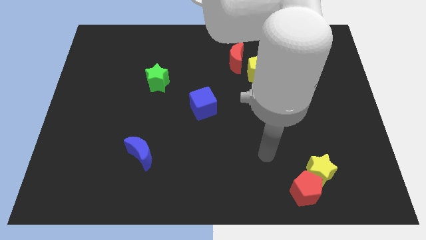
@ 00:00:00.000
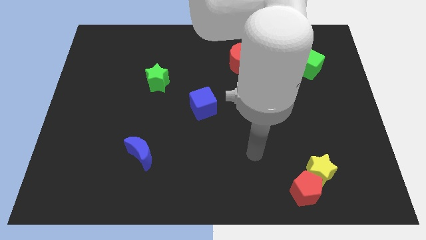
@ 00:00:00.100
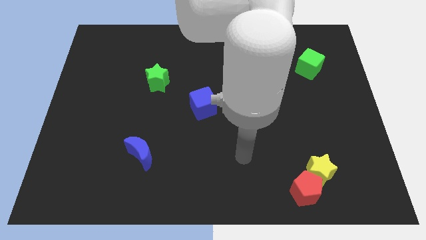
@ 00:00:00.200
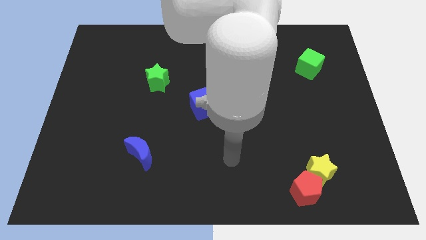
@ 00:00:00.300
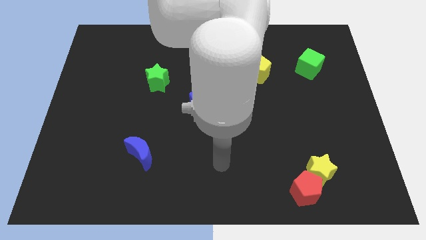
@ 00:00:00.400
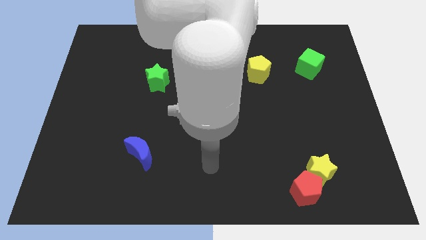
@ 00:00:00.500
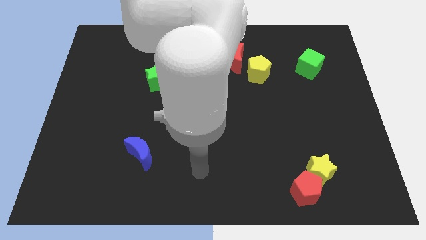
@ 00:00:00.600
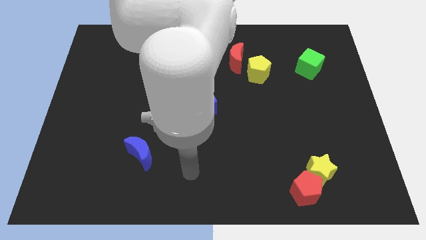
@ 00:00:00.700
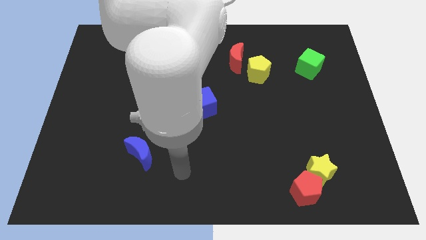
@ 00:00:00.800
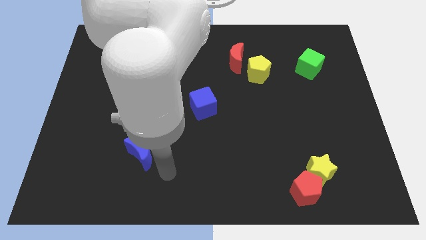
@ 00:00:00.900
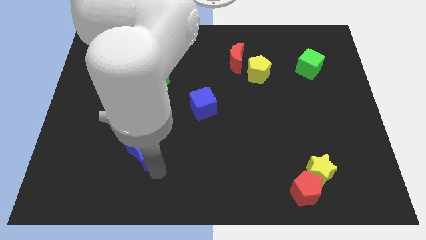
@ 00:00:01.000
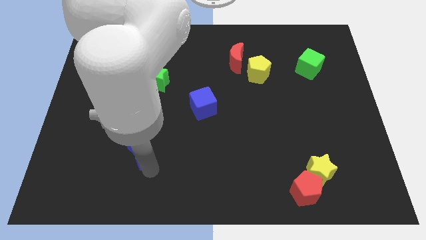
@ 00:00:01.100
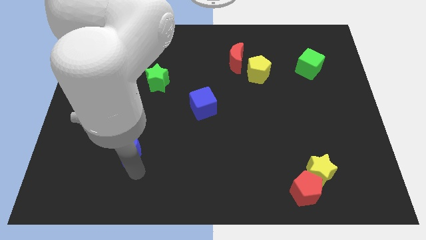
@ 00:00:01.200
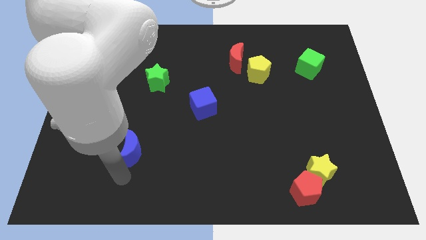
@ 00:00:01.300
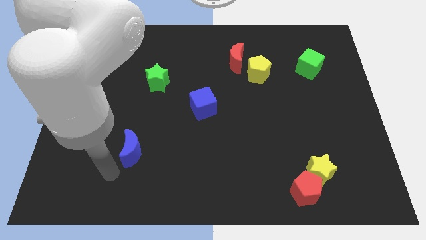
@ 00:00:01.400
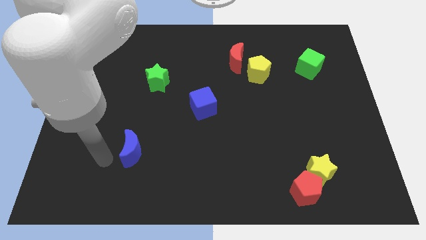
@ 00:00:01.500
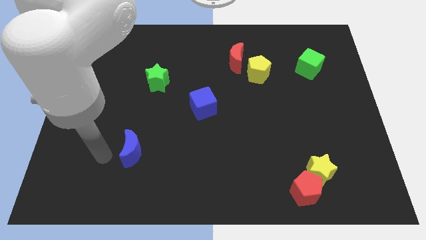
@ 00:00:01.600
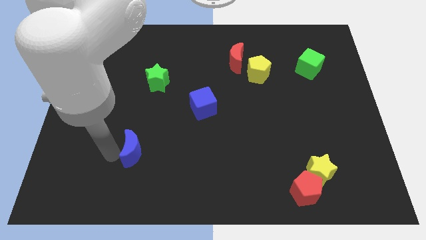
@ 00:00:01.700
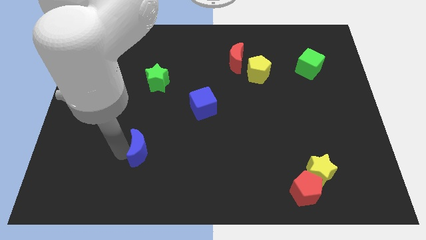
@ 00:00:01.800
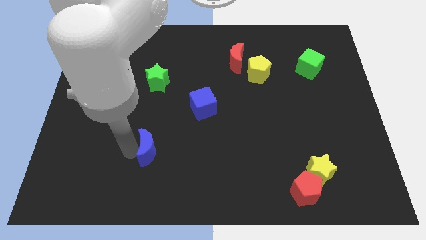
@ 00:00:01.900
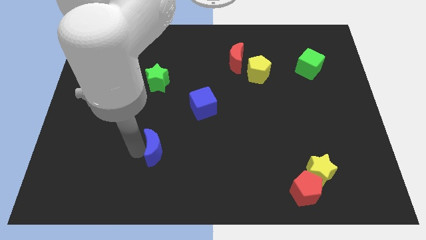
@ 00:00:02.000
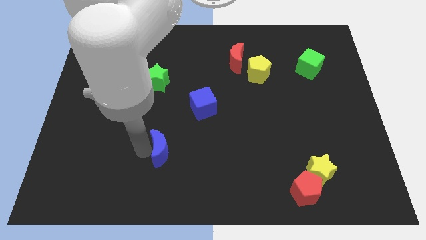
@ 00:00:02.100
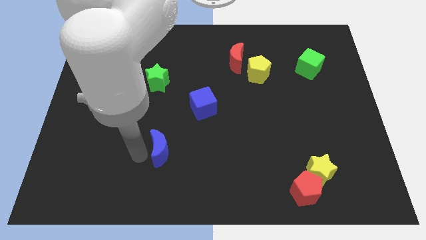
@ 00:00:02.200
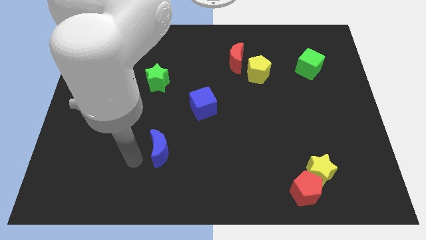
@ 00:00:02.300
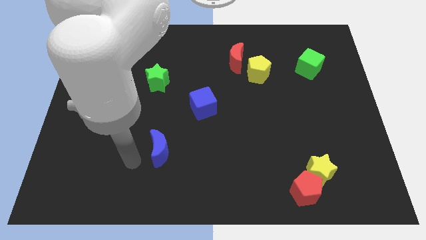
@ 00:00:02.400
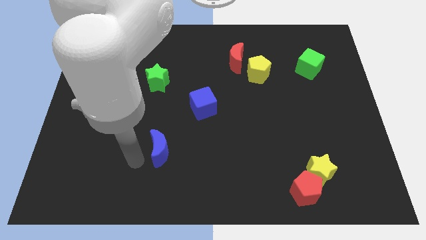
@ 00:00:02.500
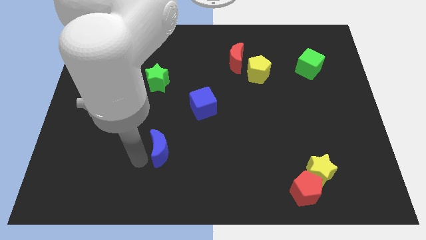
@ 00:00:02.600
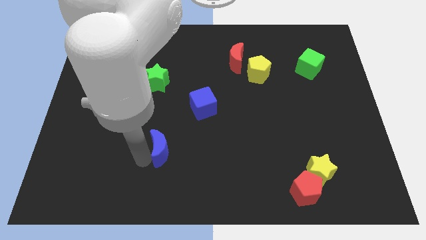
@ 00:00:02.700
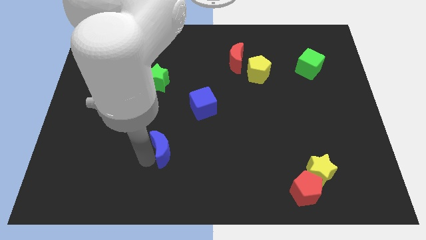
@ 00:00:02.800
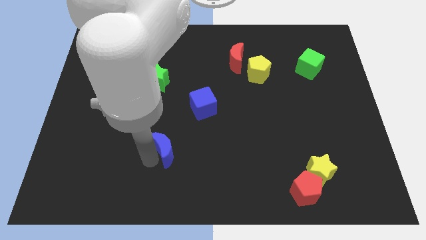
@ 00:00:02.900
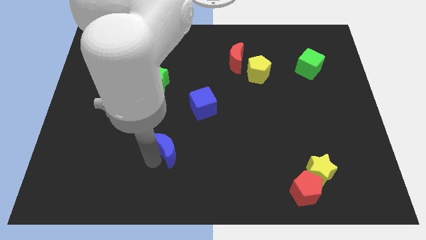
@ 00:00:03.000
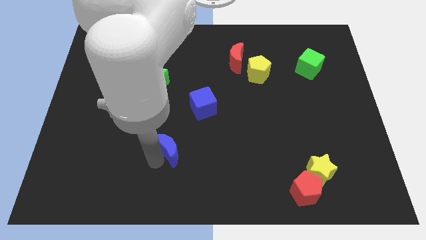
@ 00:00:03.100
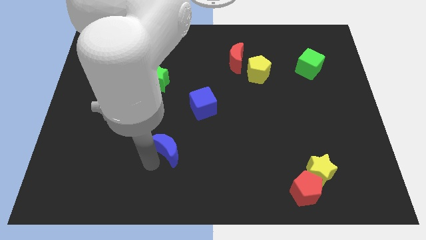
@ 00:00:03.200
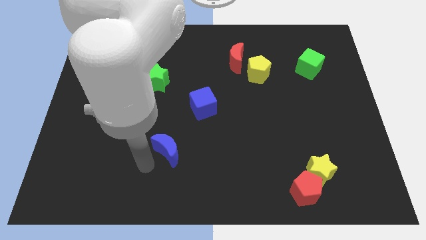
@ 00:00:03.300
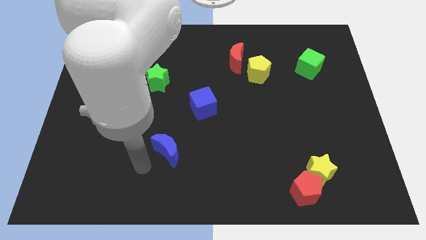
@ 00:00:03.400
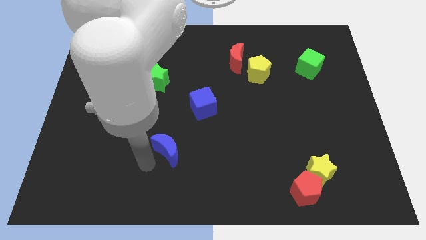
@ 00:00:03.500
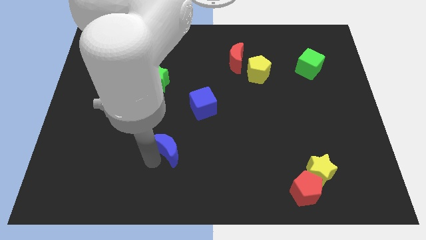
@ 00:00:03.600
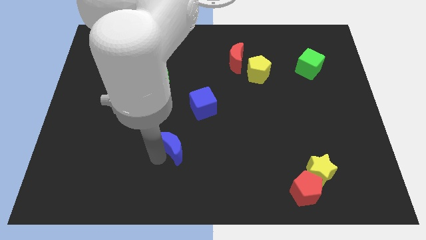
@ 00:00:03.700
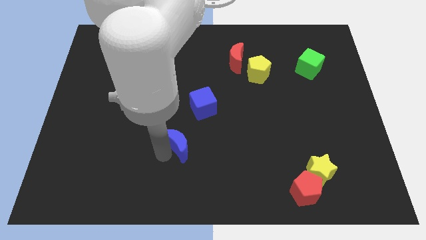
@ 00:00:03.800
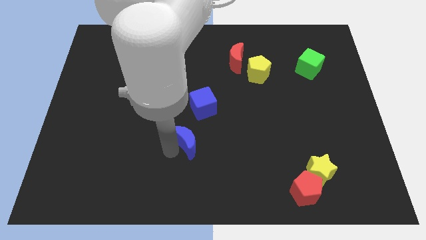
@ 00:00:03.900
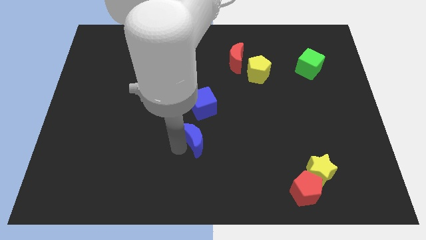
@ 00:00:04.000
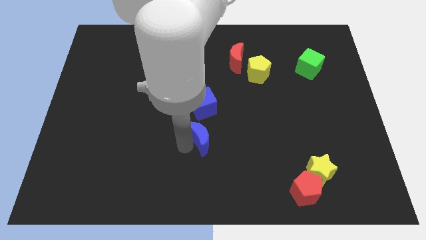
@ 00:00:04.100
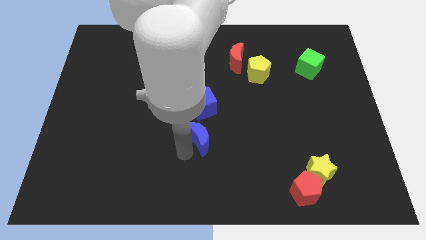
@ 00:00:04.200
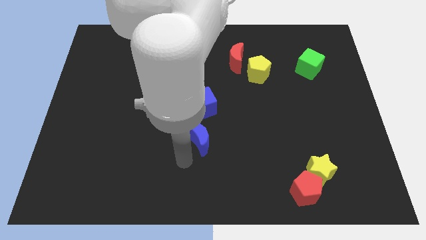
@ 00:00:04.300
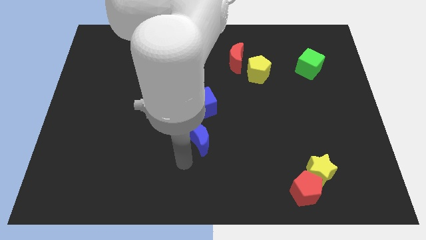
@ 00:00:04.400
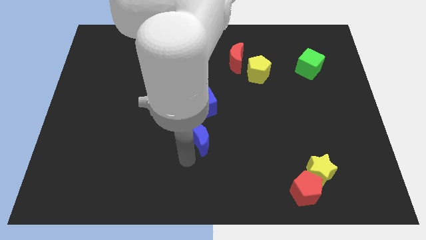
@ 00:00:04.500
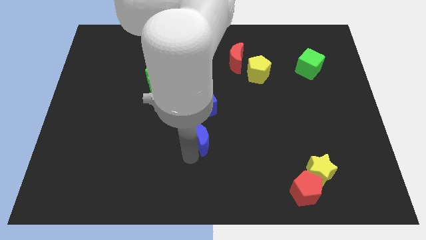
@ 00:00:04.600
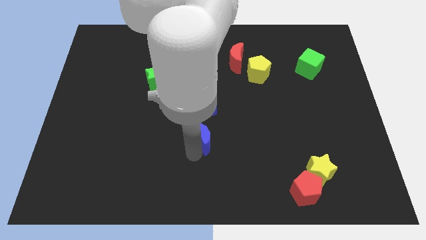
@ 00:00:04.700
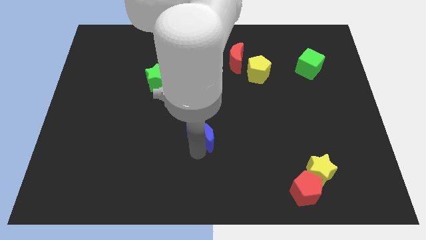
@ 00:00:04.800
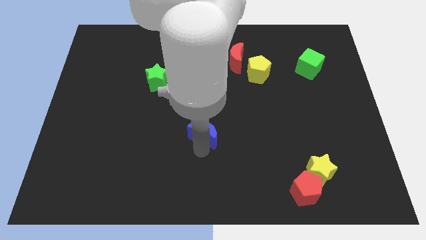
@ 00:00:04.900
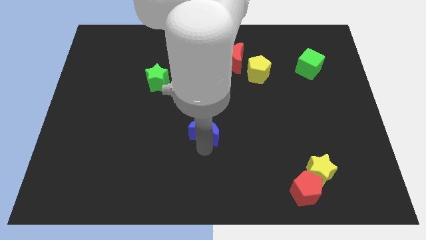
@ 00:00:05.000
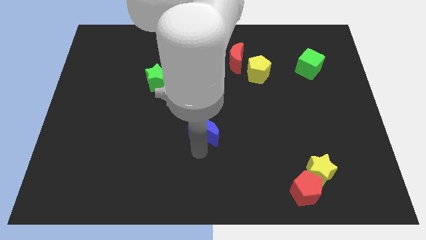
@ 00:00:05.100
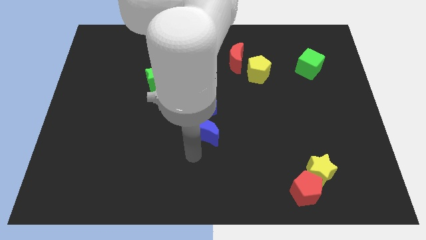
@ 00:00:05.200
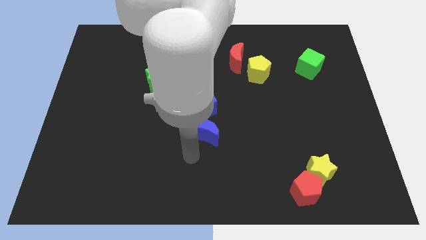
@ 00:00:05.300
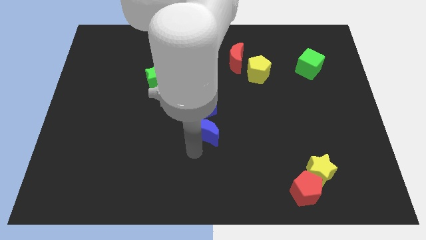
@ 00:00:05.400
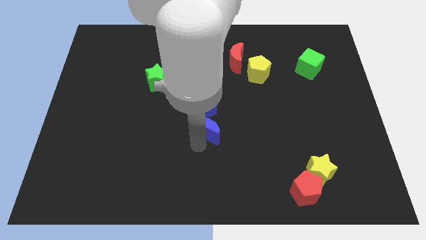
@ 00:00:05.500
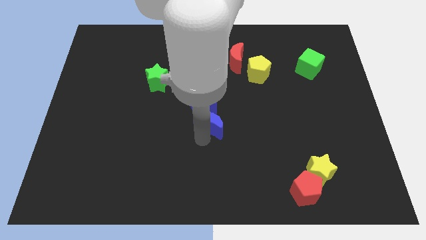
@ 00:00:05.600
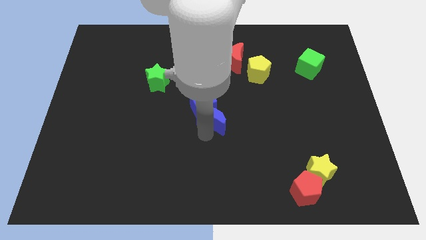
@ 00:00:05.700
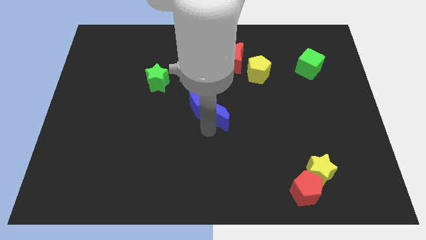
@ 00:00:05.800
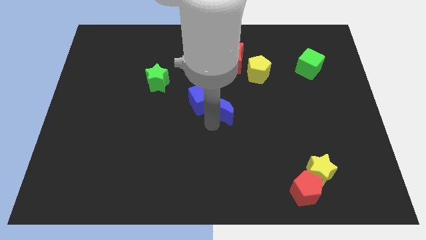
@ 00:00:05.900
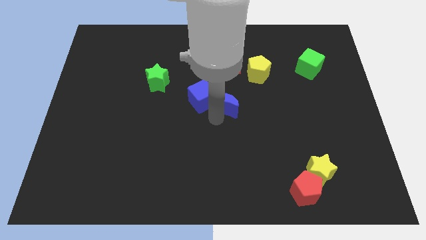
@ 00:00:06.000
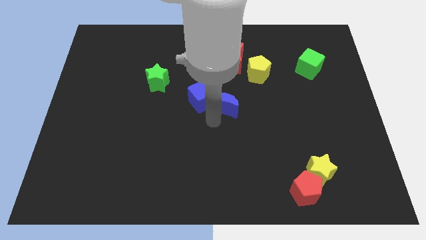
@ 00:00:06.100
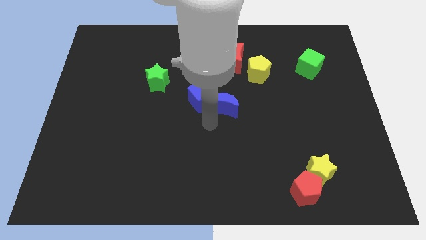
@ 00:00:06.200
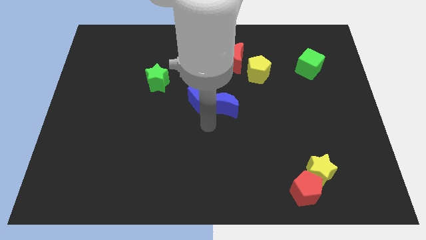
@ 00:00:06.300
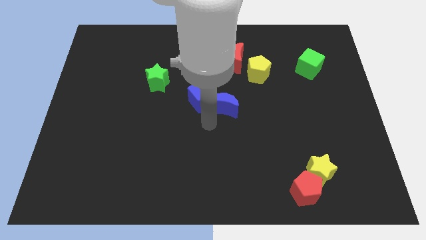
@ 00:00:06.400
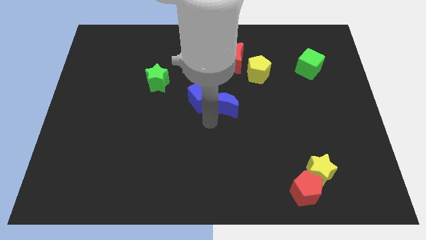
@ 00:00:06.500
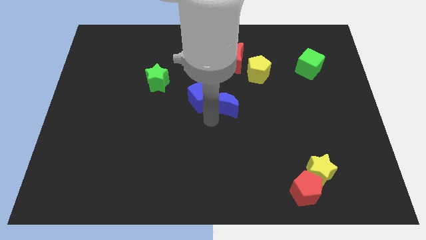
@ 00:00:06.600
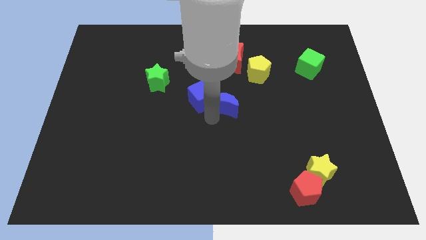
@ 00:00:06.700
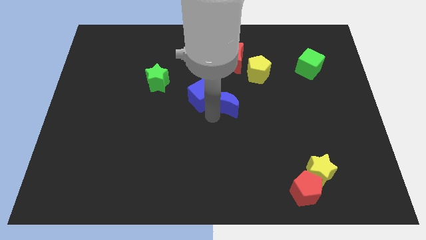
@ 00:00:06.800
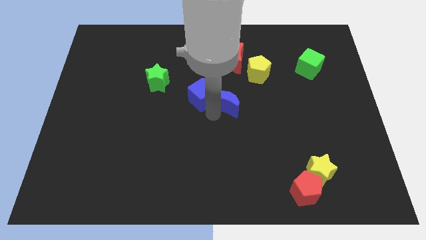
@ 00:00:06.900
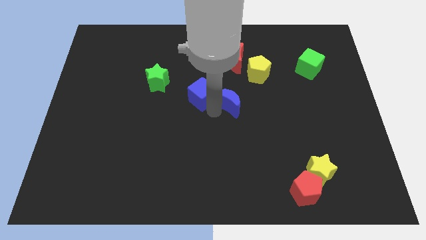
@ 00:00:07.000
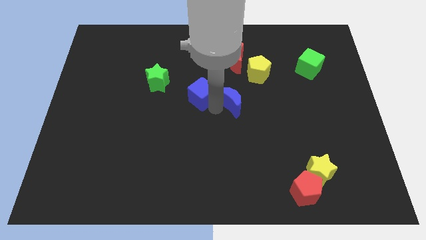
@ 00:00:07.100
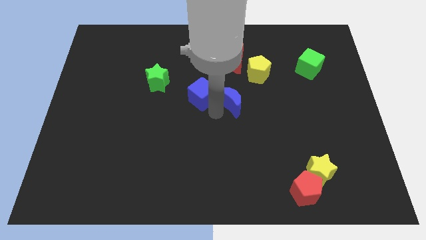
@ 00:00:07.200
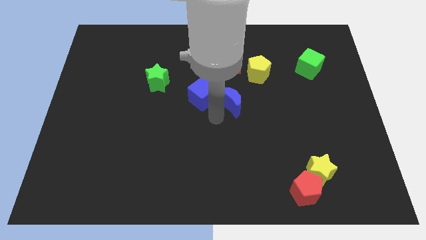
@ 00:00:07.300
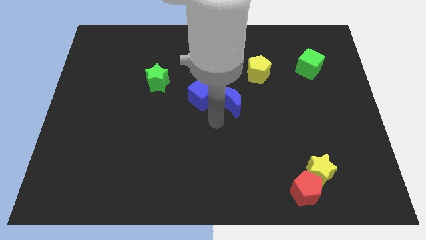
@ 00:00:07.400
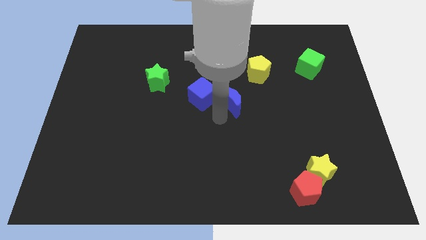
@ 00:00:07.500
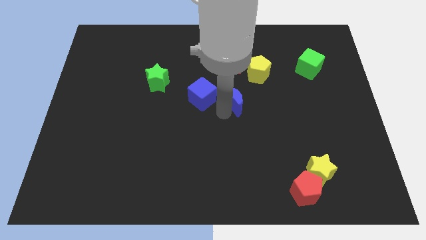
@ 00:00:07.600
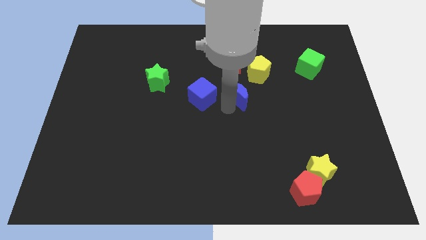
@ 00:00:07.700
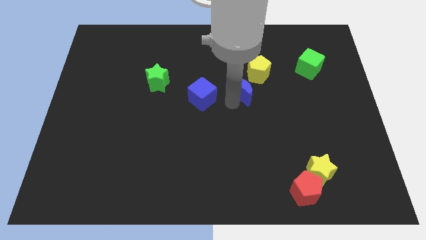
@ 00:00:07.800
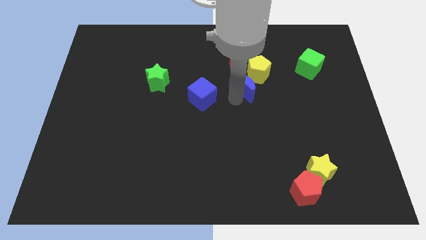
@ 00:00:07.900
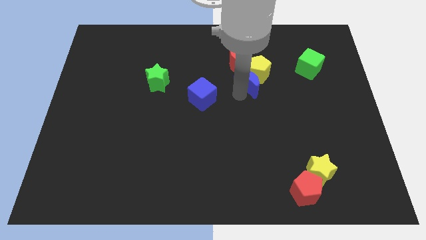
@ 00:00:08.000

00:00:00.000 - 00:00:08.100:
move the blue moon next to the yellow pentagon
